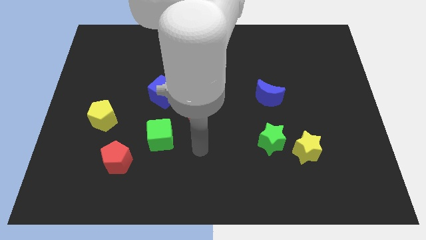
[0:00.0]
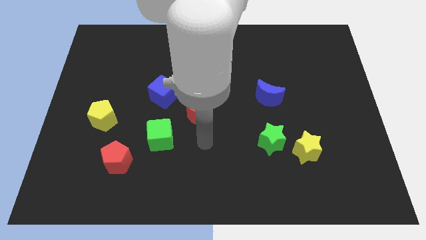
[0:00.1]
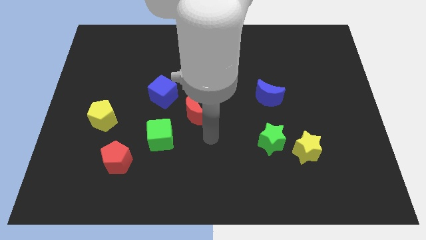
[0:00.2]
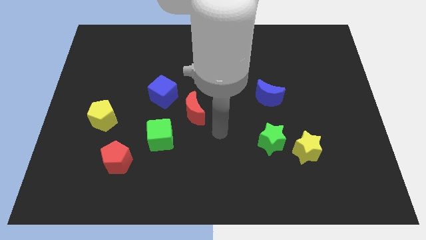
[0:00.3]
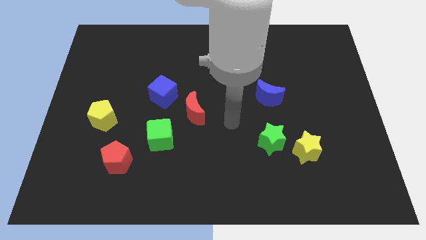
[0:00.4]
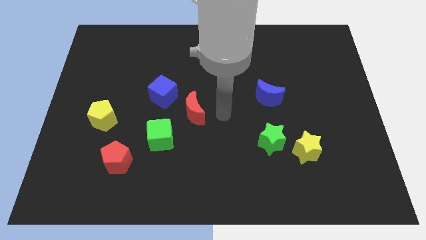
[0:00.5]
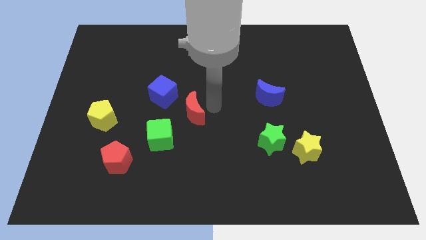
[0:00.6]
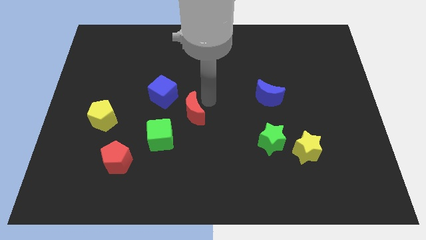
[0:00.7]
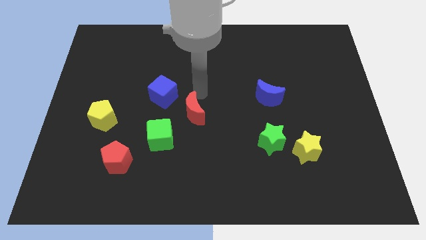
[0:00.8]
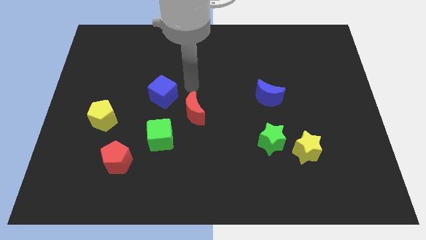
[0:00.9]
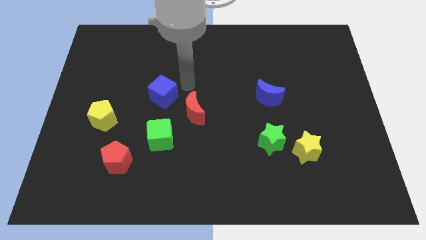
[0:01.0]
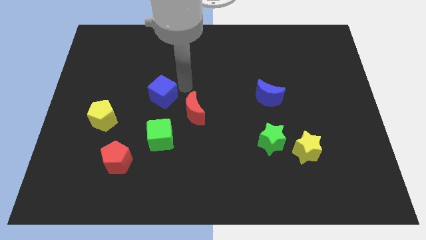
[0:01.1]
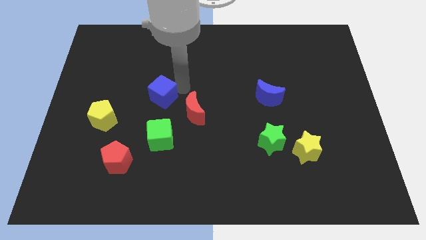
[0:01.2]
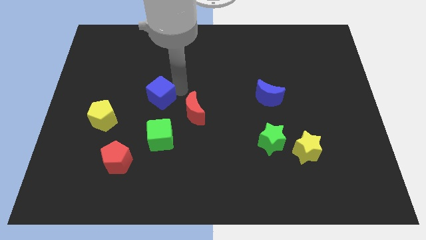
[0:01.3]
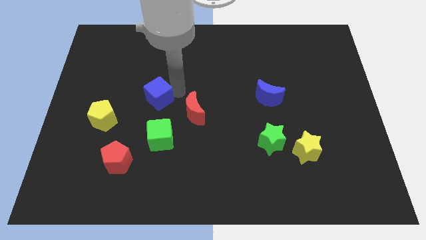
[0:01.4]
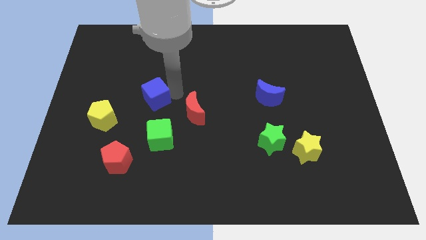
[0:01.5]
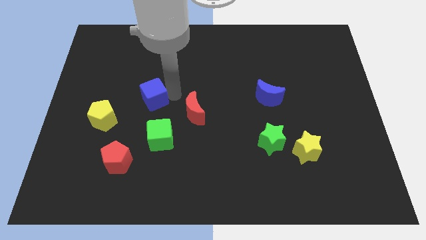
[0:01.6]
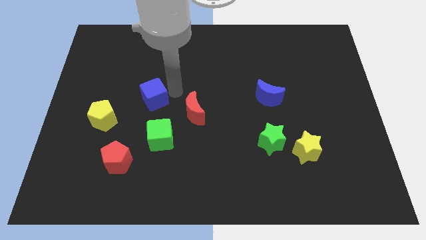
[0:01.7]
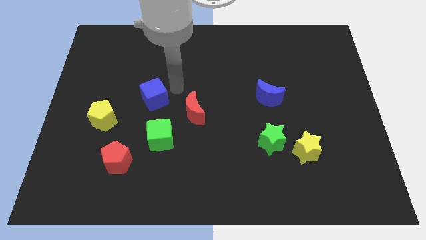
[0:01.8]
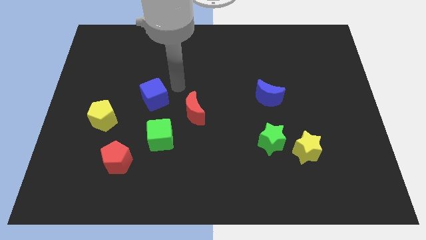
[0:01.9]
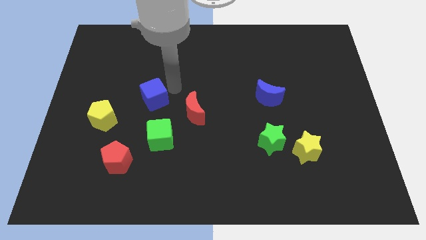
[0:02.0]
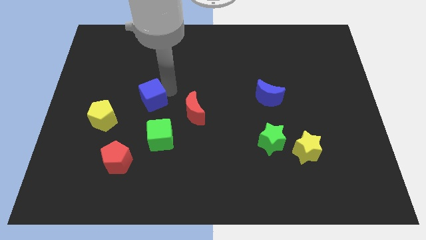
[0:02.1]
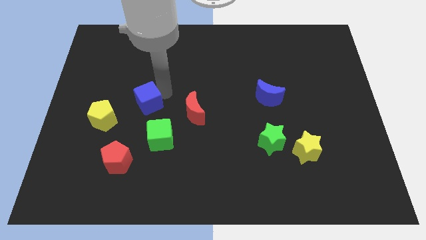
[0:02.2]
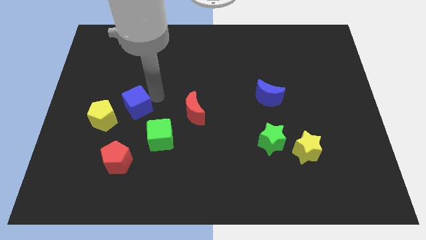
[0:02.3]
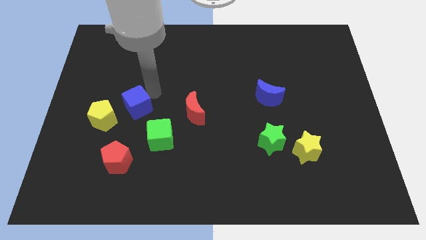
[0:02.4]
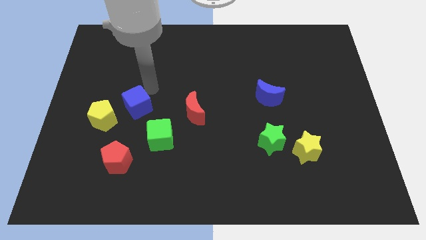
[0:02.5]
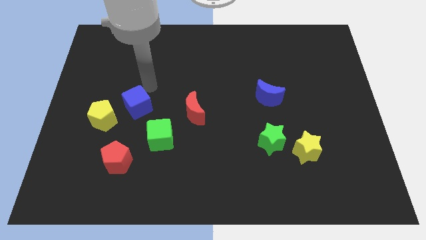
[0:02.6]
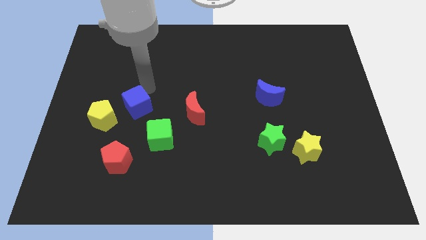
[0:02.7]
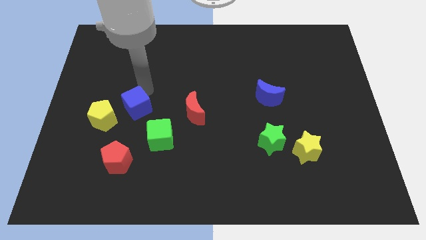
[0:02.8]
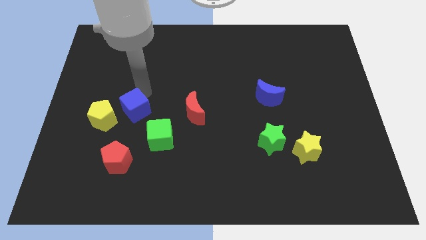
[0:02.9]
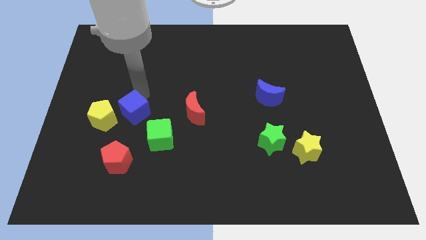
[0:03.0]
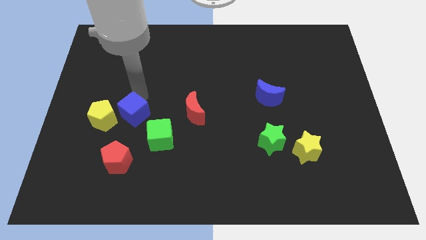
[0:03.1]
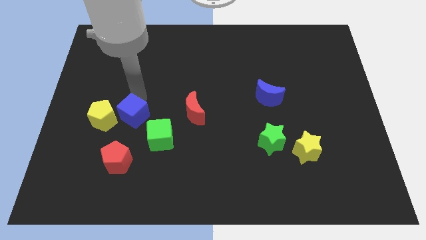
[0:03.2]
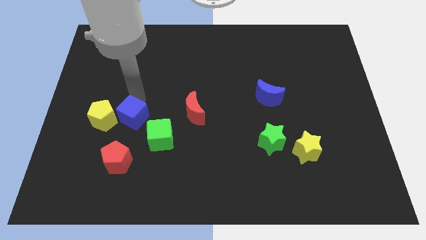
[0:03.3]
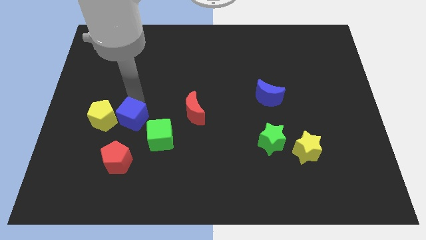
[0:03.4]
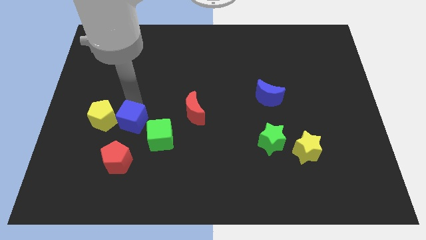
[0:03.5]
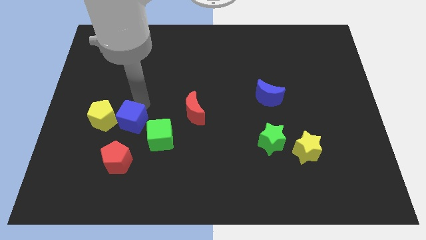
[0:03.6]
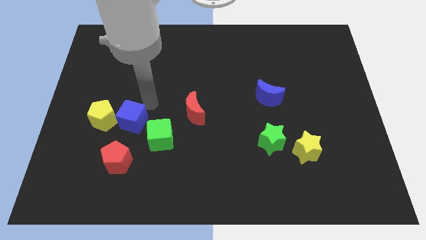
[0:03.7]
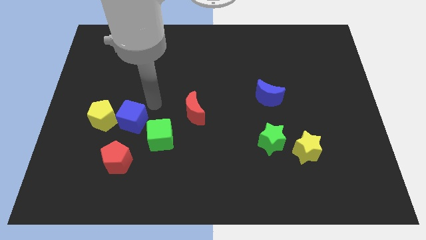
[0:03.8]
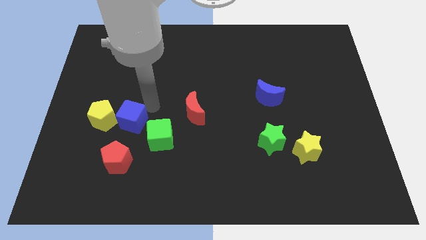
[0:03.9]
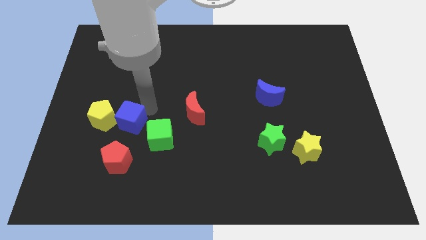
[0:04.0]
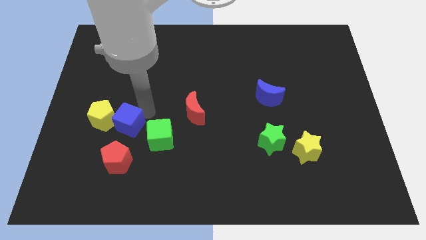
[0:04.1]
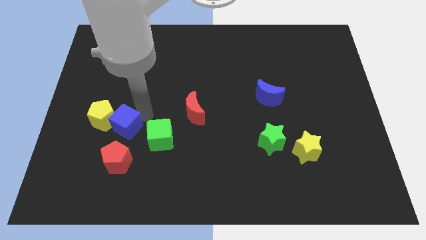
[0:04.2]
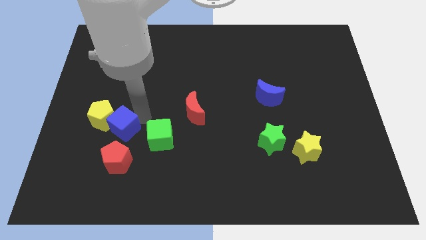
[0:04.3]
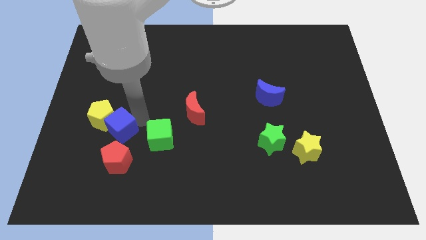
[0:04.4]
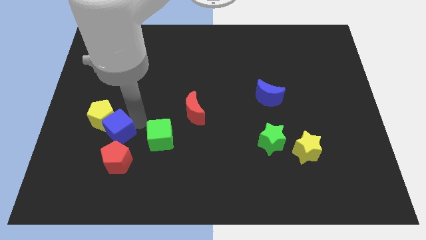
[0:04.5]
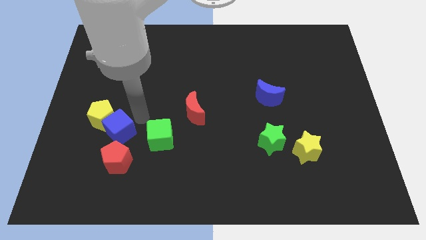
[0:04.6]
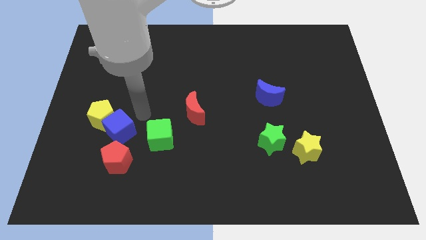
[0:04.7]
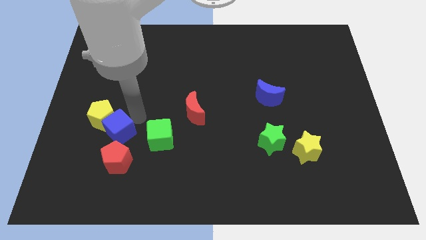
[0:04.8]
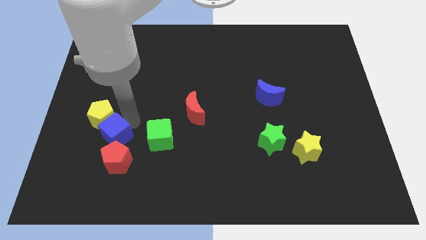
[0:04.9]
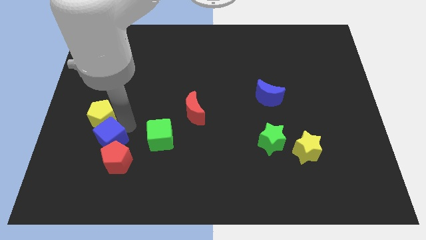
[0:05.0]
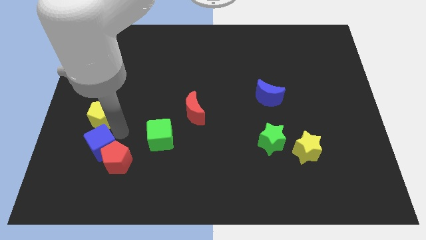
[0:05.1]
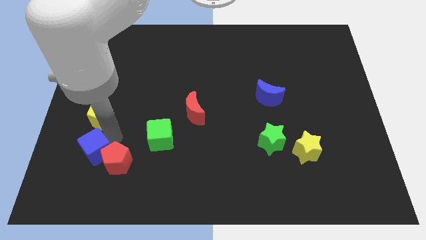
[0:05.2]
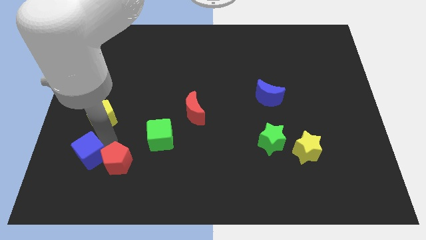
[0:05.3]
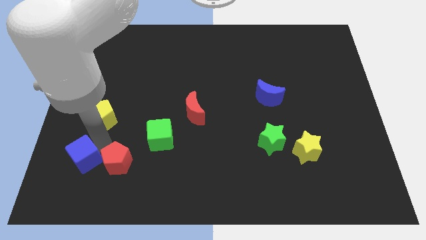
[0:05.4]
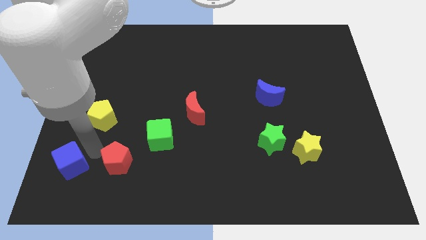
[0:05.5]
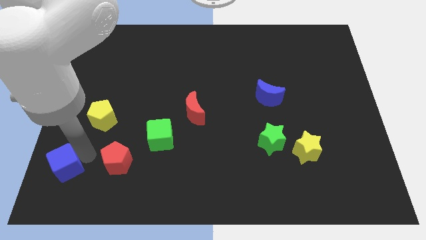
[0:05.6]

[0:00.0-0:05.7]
slide the blue cube to the bottom left of the board

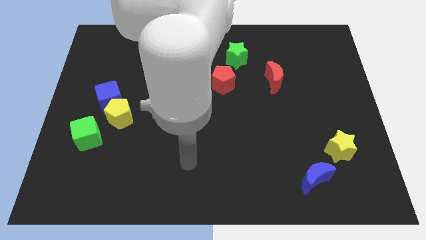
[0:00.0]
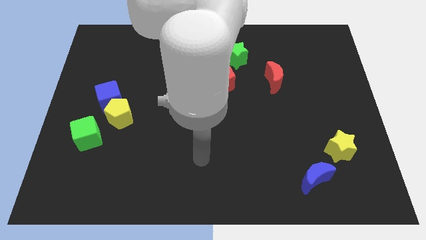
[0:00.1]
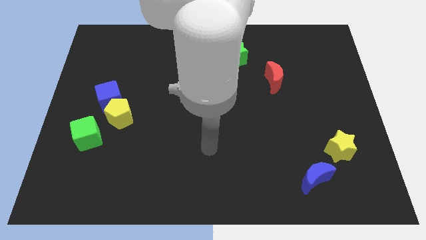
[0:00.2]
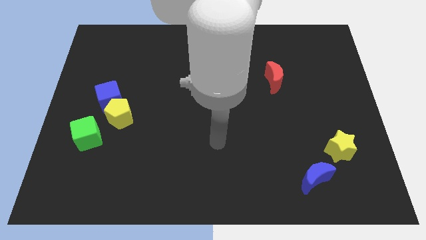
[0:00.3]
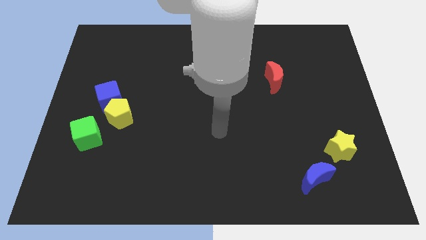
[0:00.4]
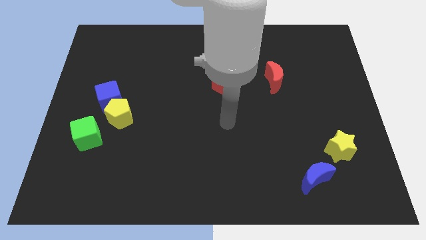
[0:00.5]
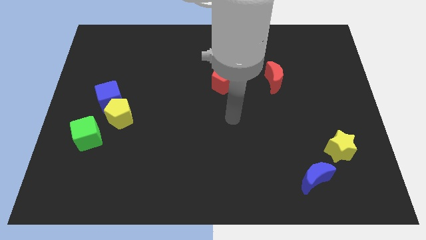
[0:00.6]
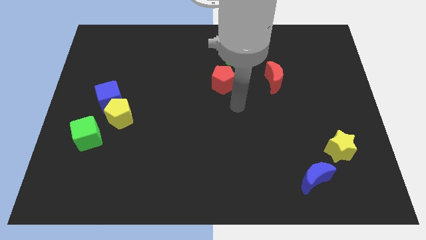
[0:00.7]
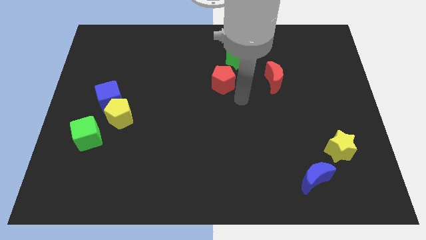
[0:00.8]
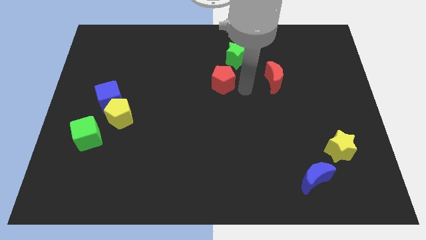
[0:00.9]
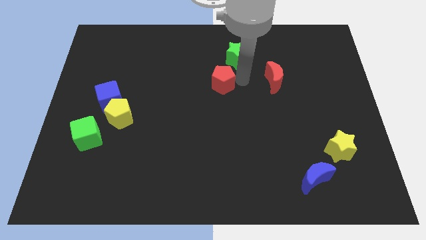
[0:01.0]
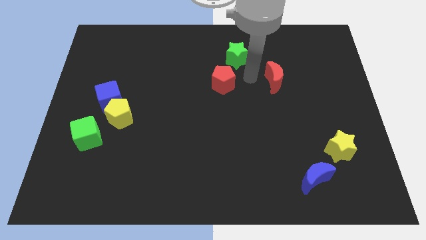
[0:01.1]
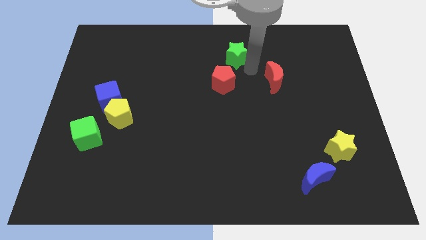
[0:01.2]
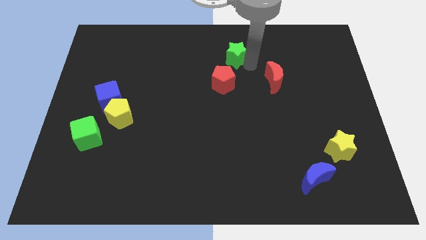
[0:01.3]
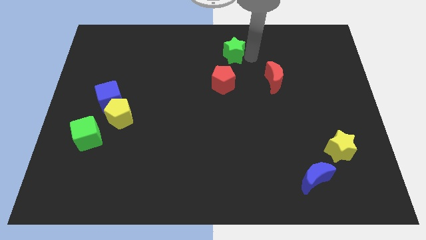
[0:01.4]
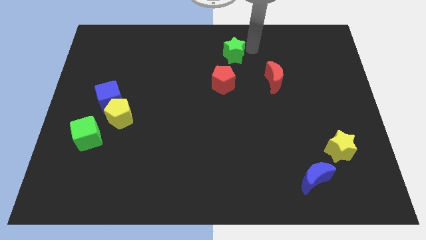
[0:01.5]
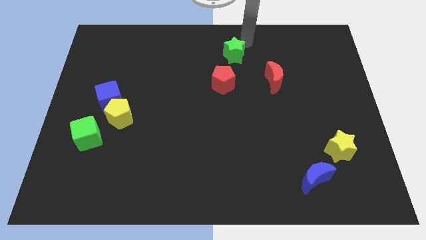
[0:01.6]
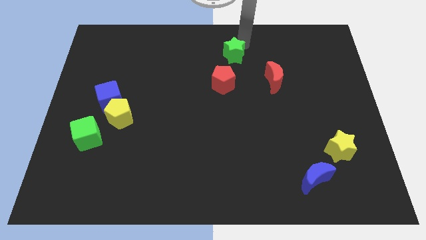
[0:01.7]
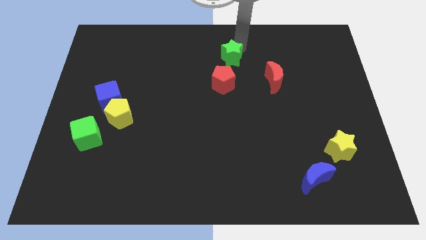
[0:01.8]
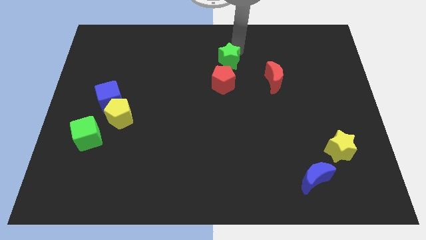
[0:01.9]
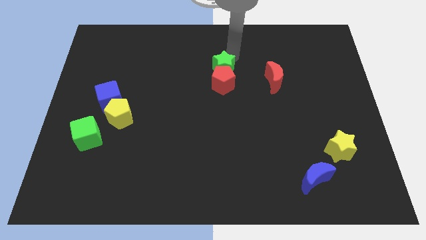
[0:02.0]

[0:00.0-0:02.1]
put the green star to the middle of the board
